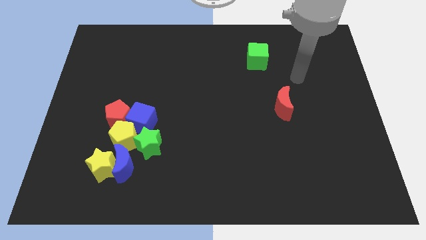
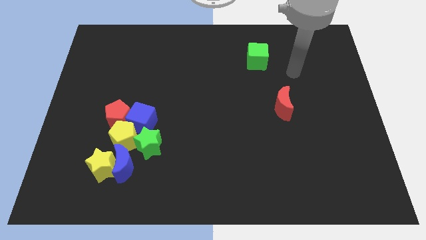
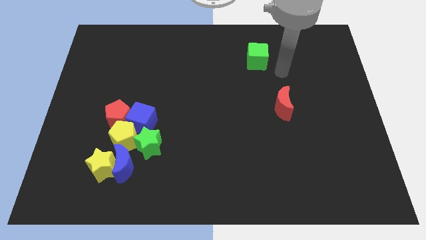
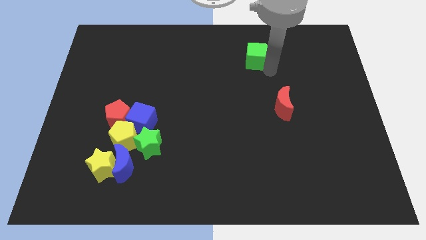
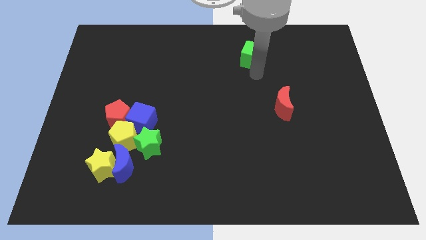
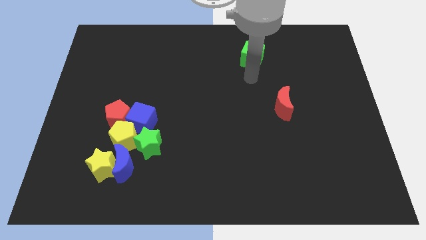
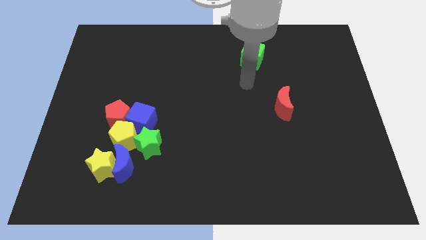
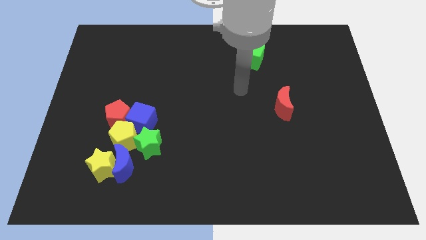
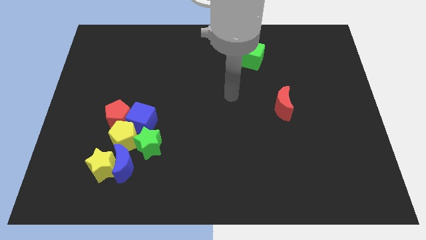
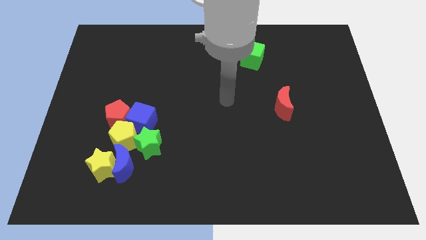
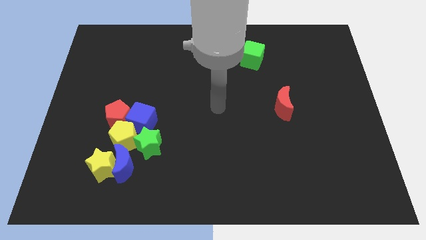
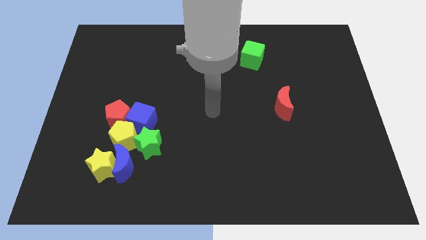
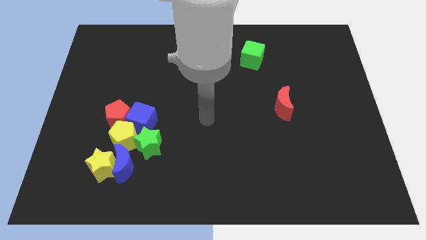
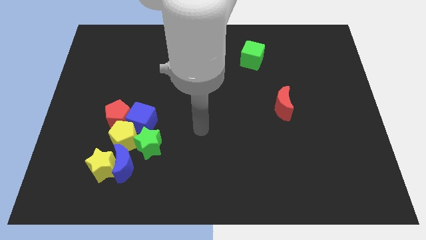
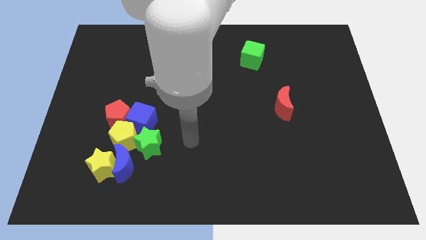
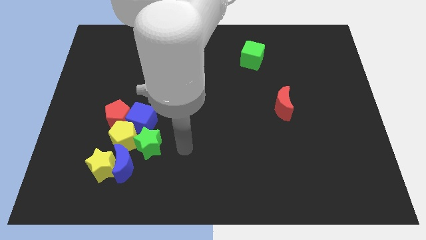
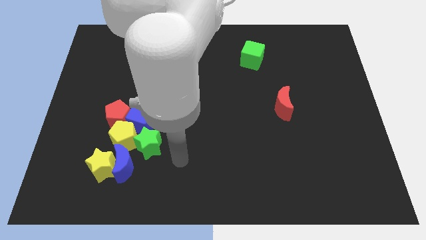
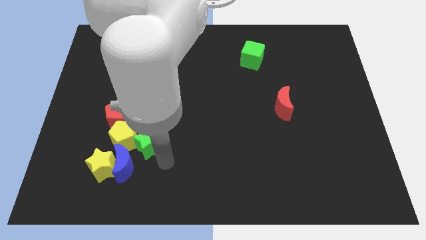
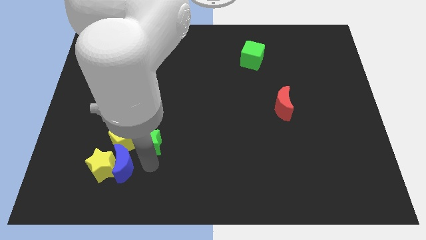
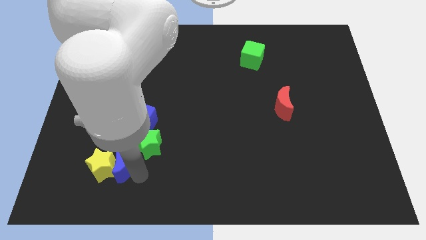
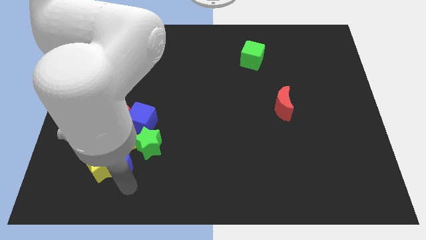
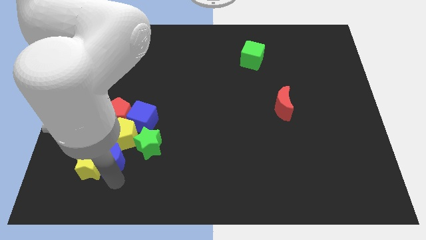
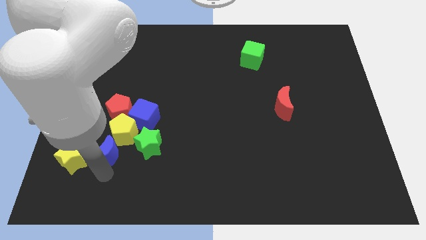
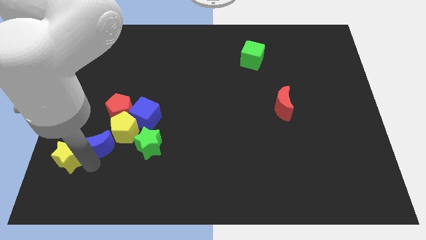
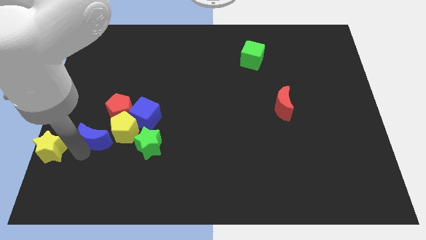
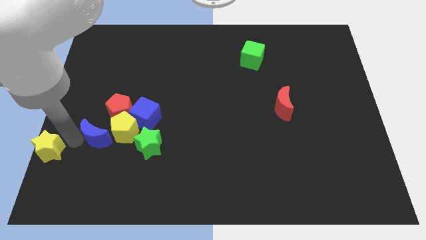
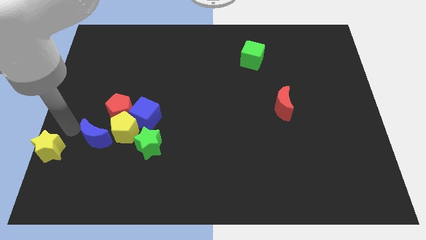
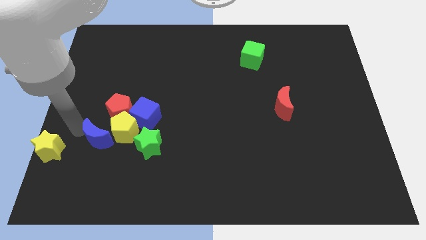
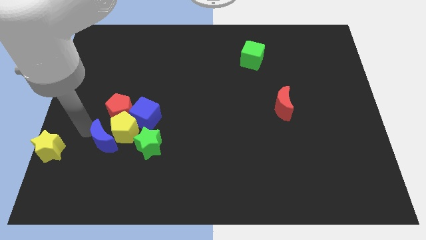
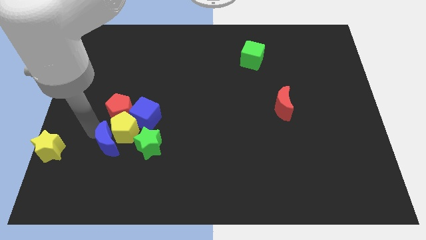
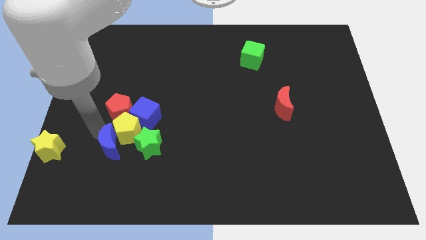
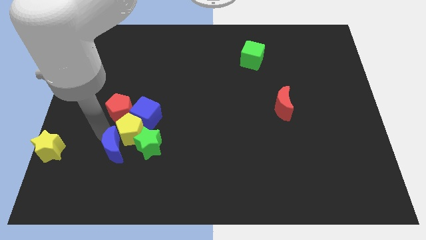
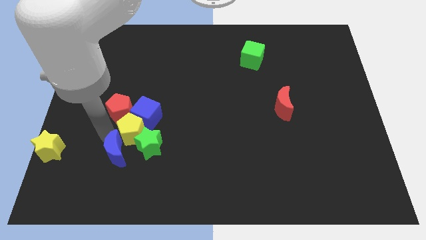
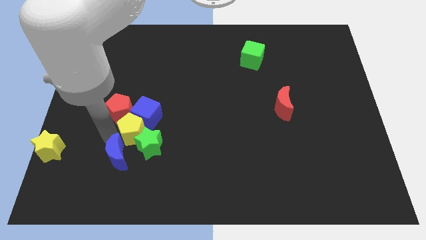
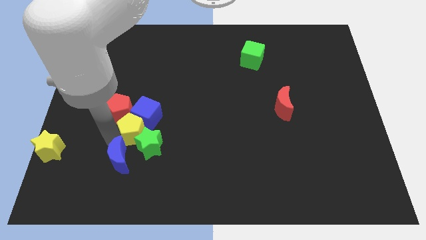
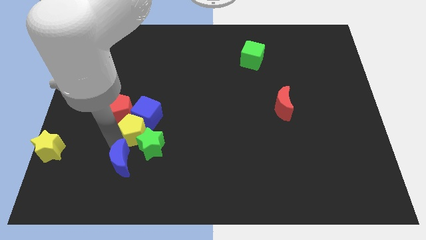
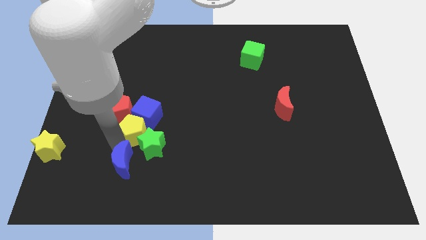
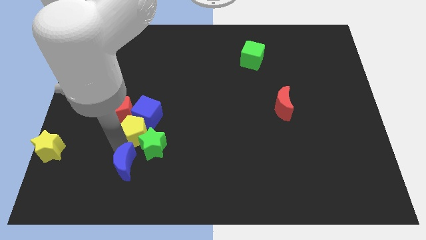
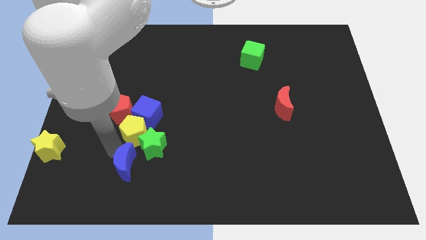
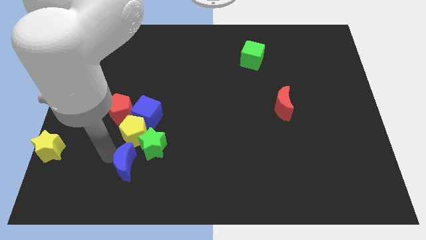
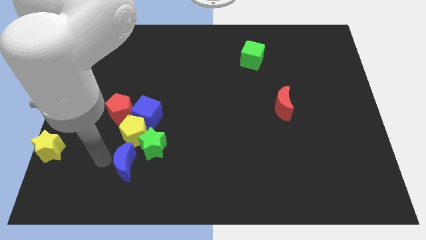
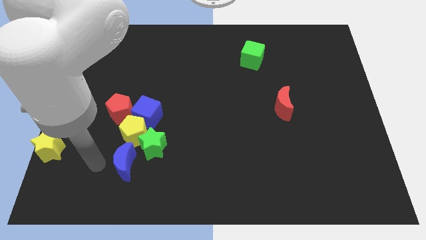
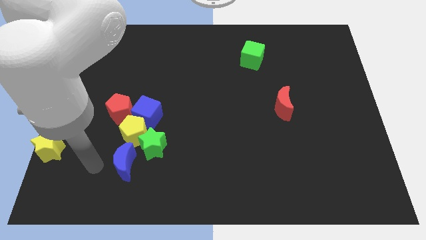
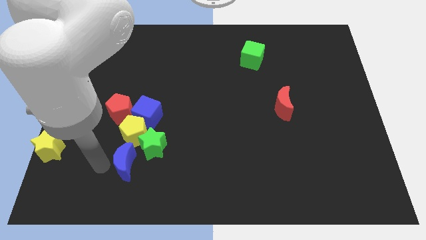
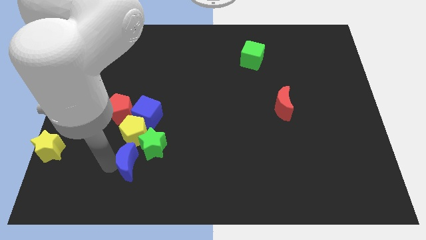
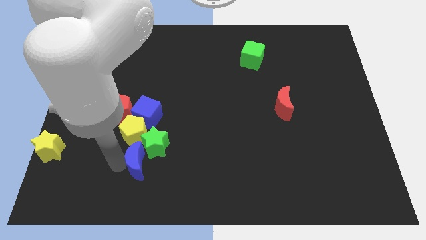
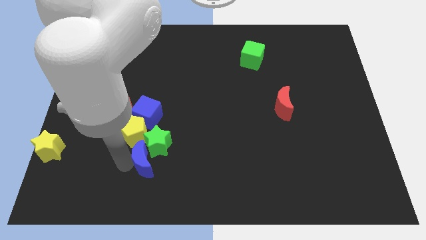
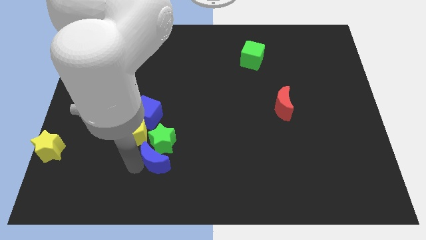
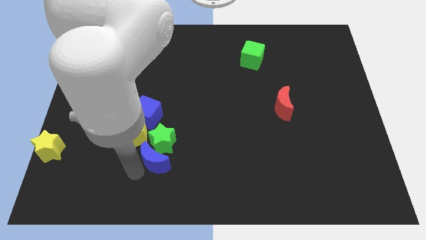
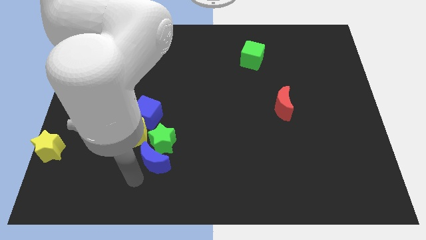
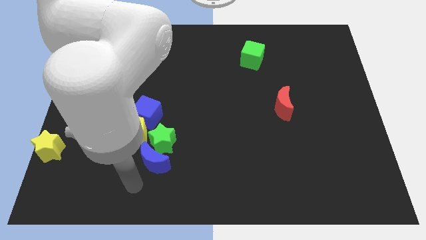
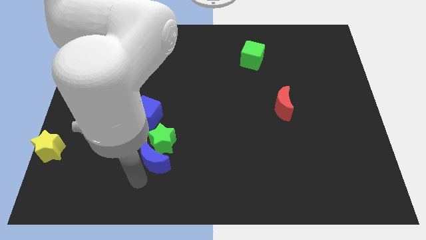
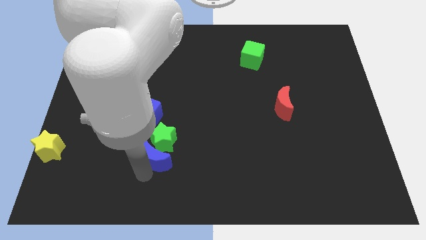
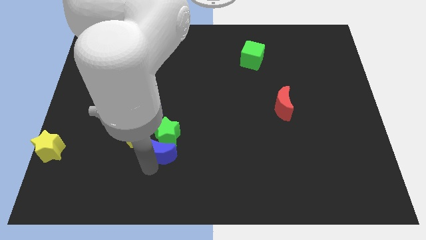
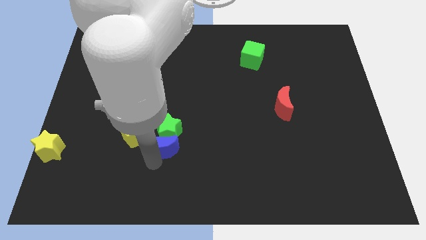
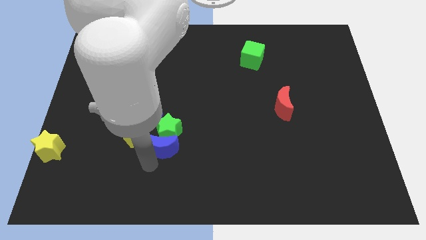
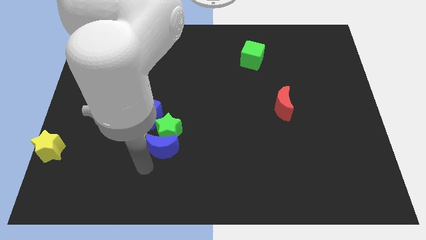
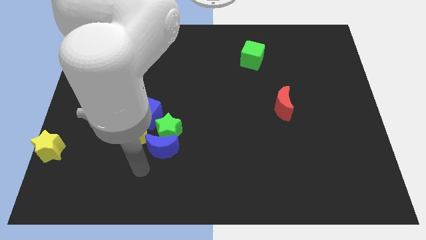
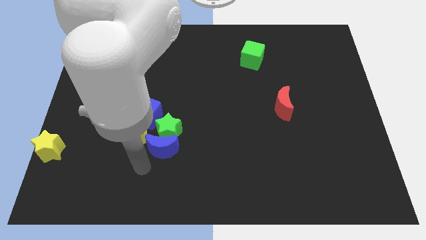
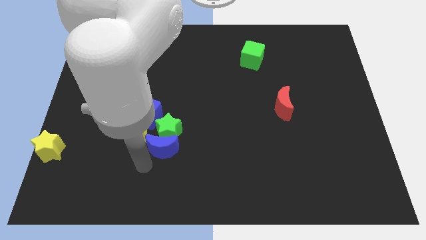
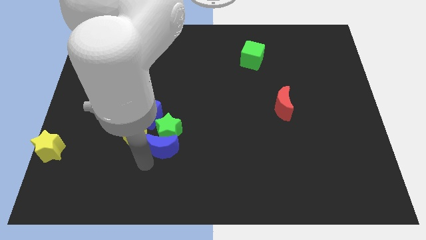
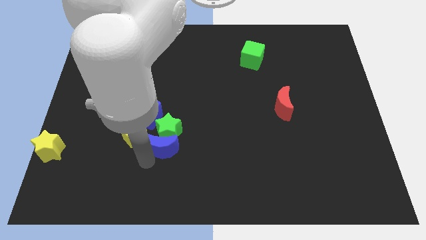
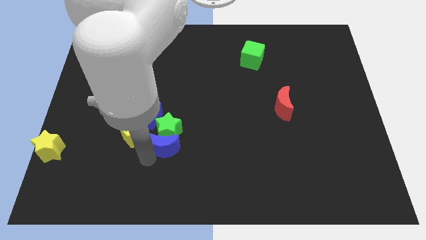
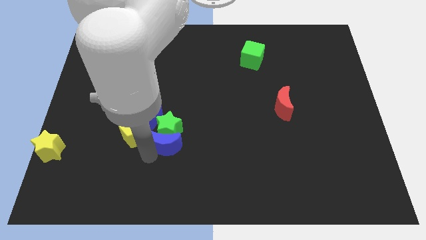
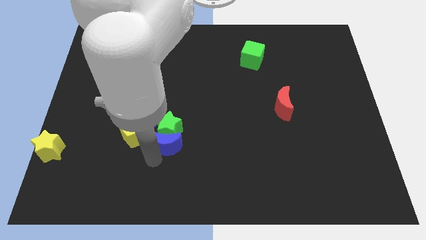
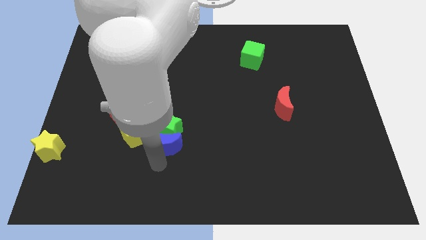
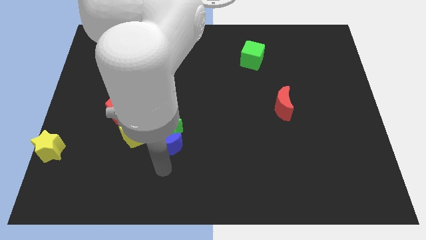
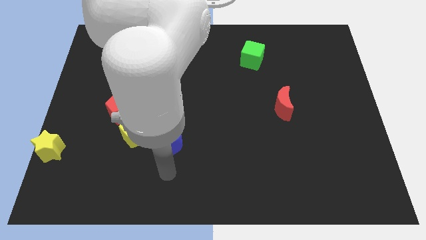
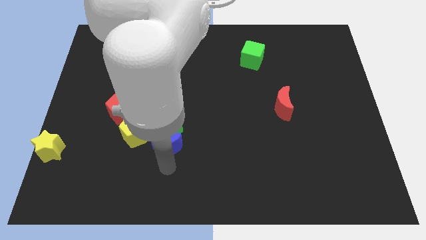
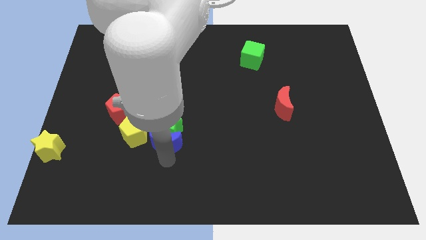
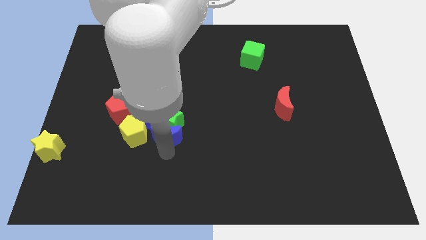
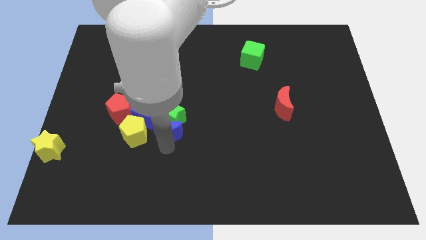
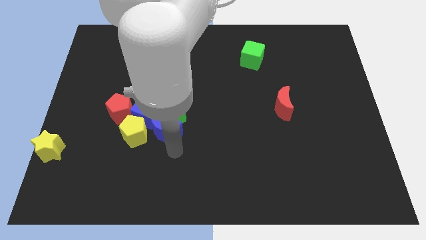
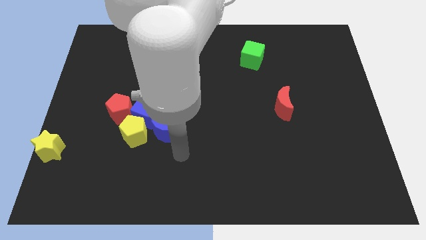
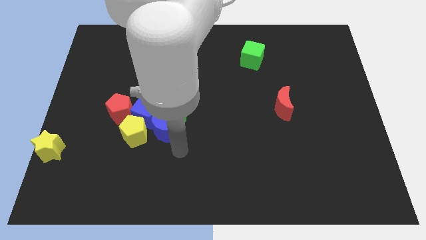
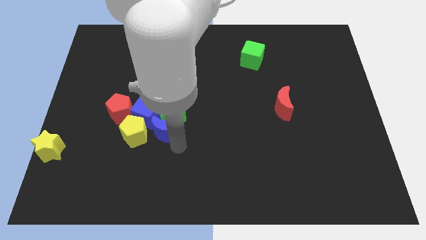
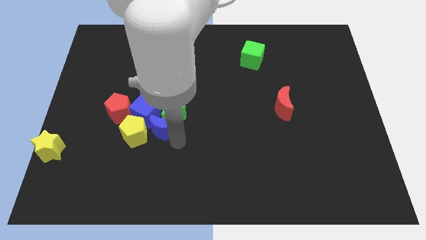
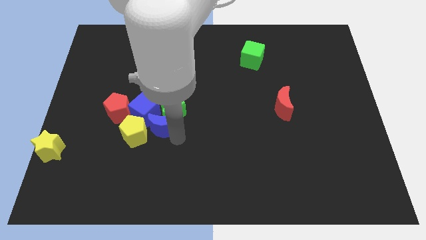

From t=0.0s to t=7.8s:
move the blue moon upwards slightly

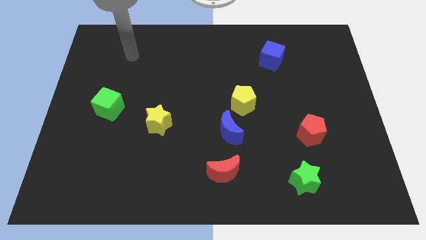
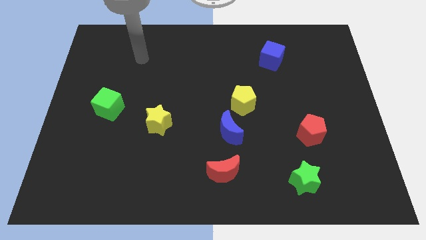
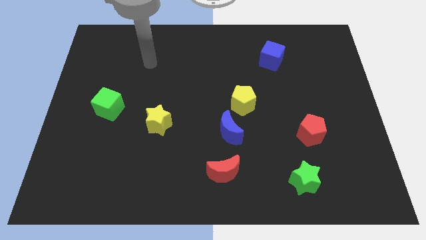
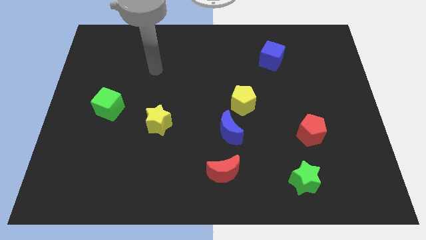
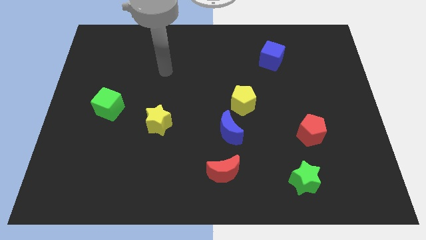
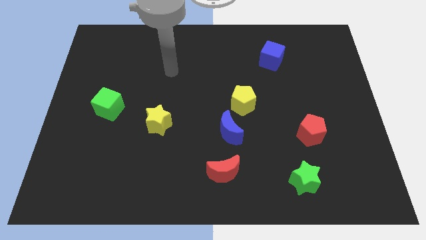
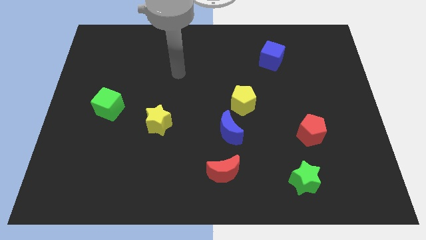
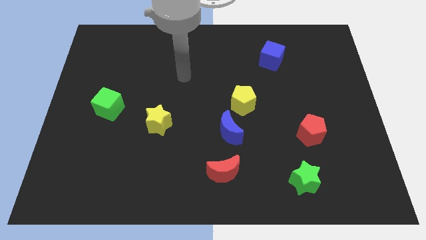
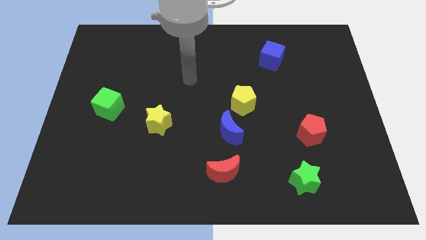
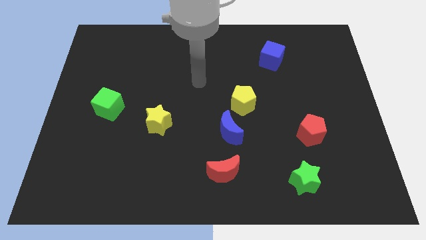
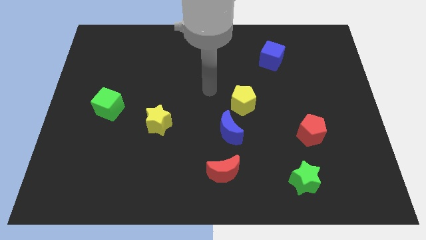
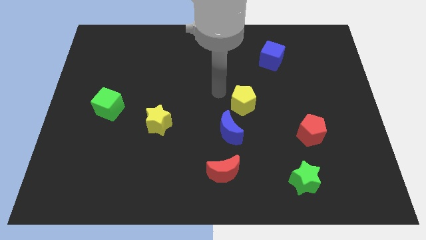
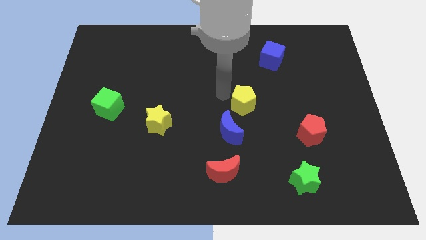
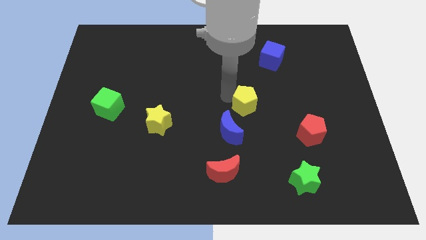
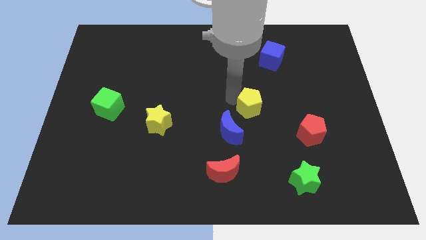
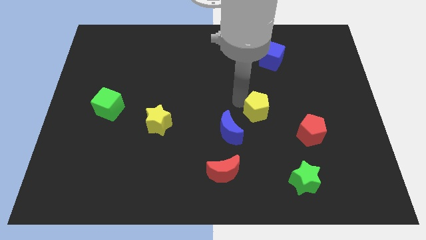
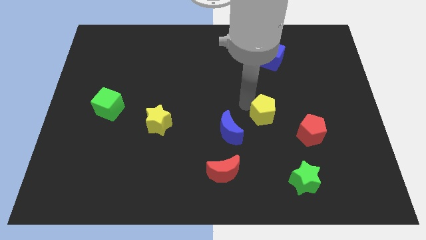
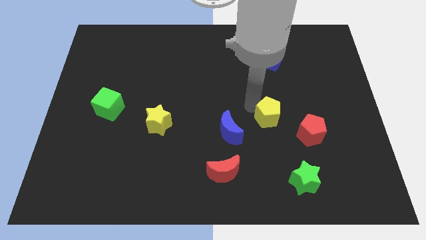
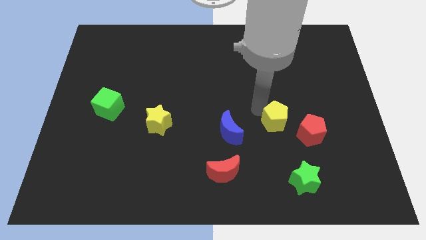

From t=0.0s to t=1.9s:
slightly slide the yellow pentagon downwards and to the right diagonally
